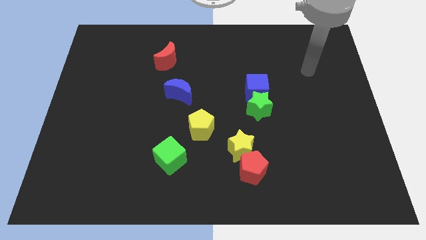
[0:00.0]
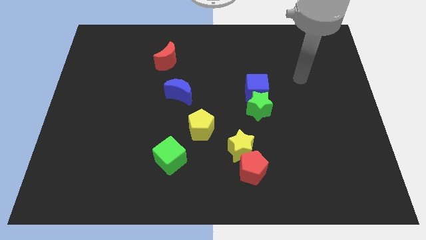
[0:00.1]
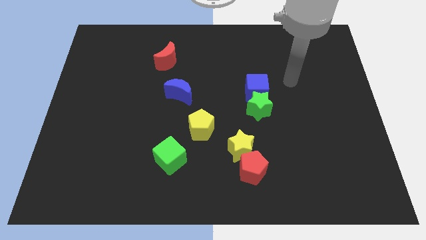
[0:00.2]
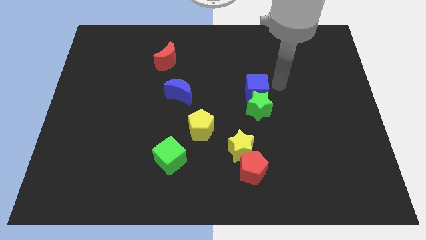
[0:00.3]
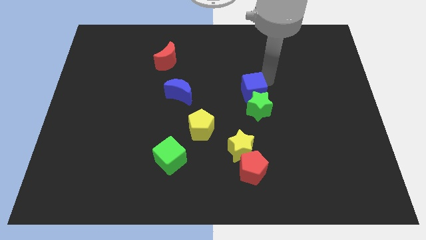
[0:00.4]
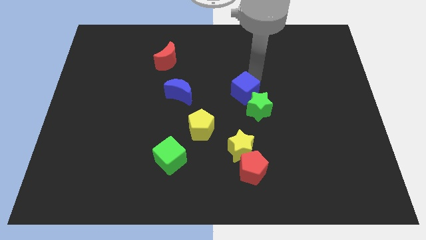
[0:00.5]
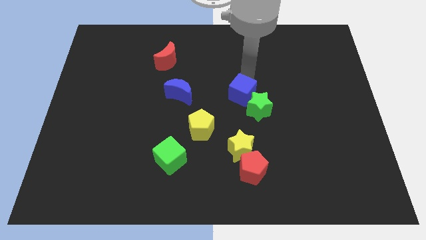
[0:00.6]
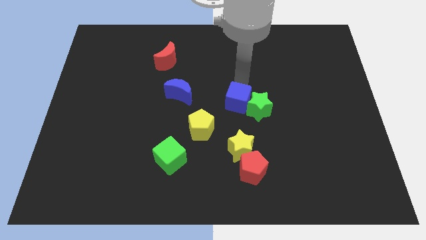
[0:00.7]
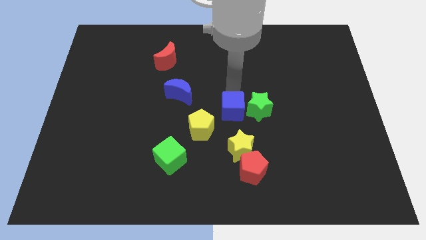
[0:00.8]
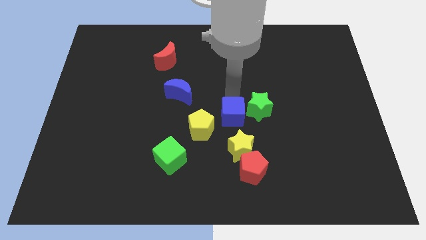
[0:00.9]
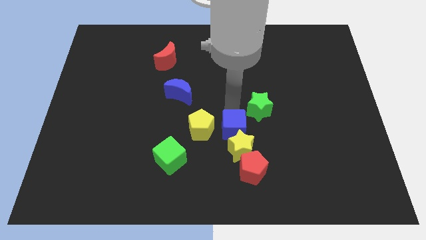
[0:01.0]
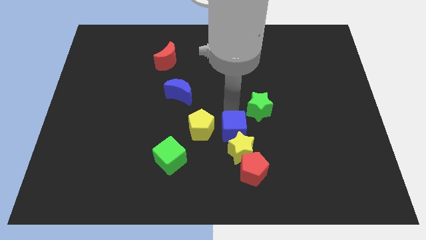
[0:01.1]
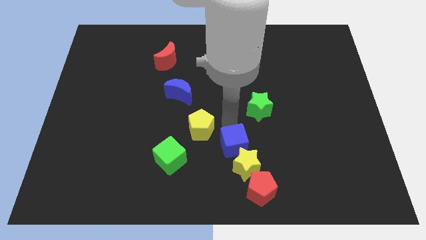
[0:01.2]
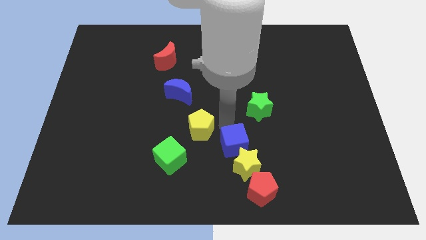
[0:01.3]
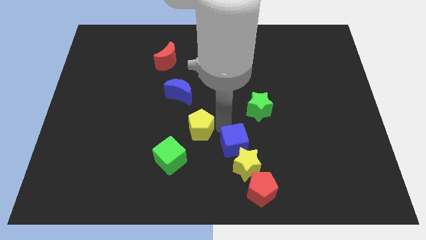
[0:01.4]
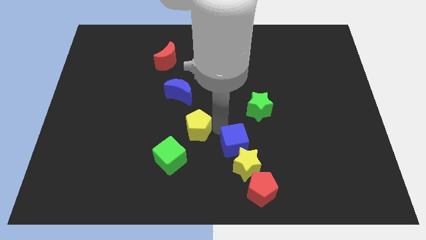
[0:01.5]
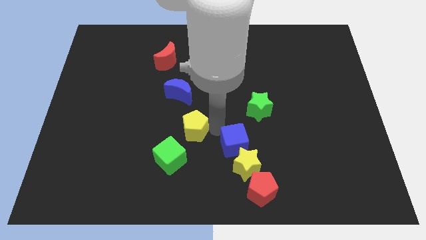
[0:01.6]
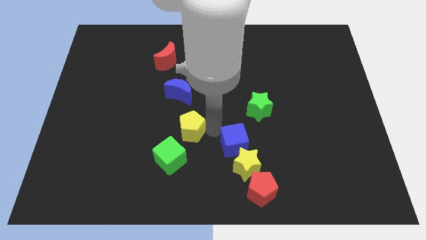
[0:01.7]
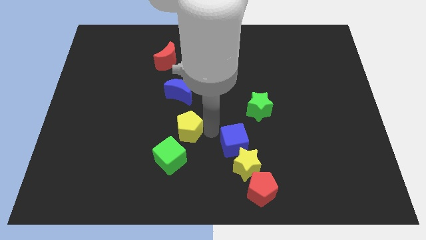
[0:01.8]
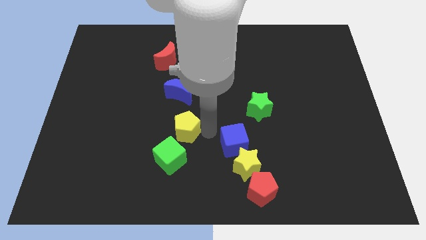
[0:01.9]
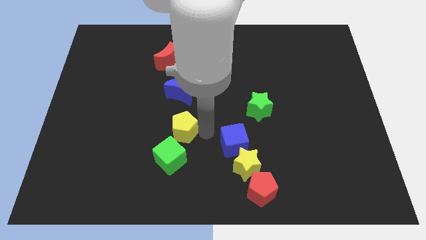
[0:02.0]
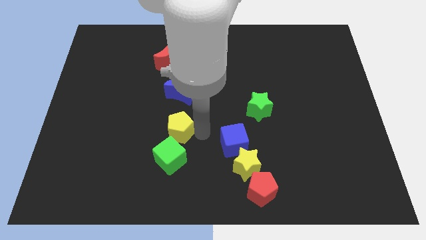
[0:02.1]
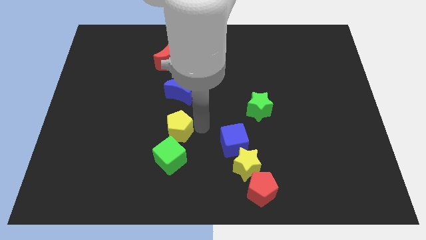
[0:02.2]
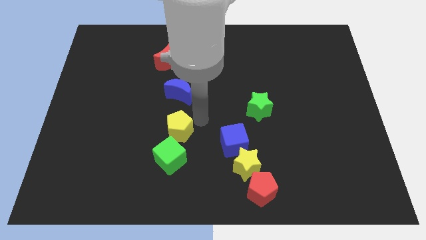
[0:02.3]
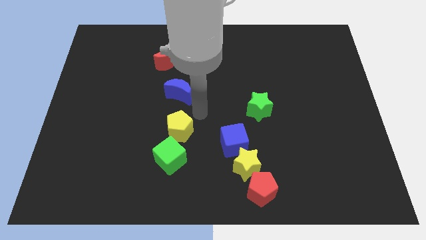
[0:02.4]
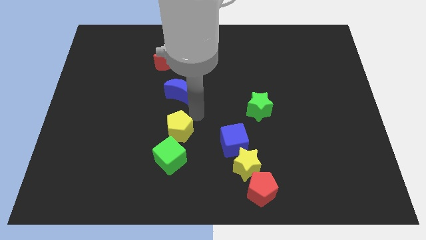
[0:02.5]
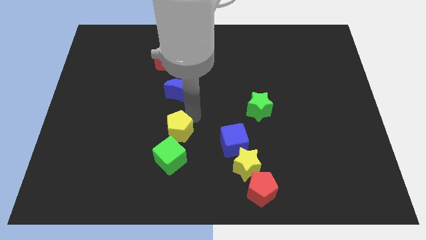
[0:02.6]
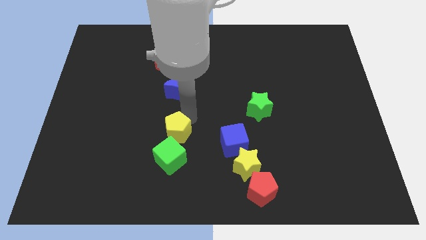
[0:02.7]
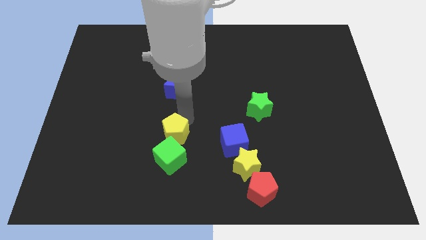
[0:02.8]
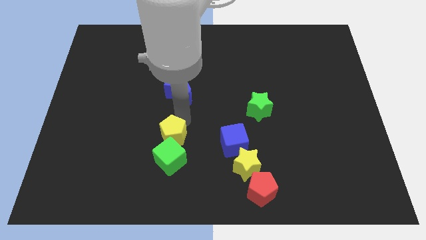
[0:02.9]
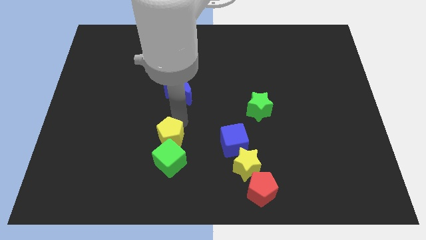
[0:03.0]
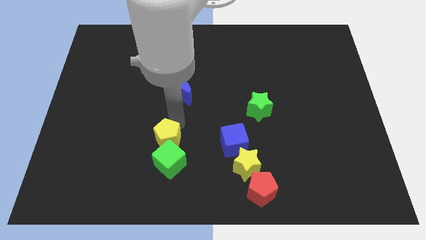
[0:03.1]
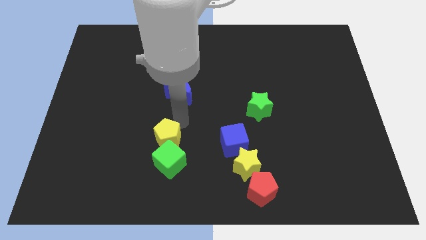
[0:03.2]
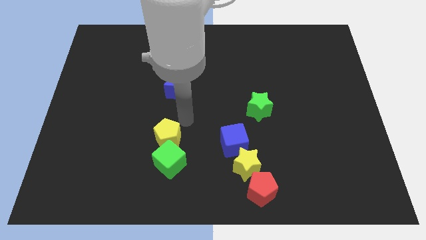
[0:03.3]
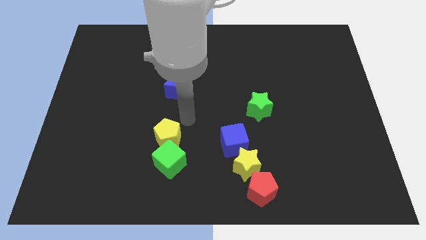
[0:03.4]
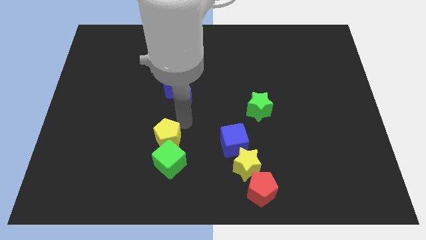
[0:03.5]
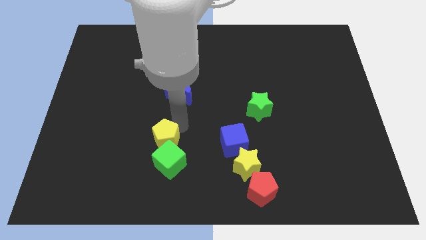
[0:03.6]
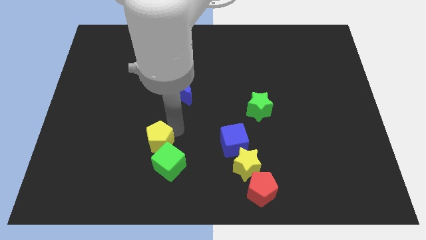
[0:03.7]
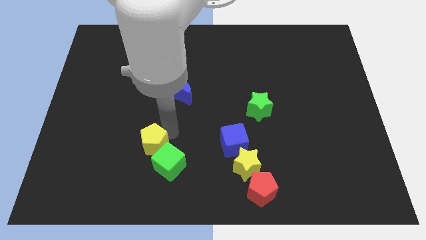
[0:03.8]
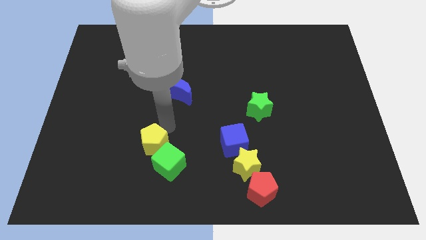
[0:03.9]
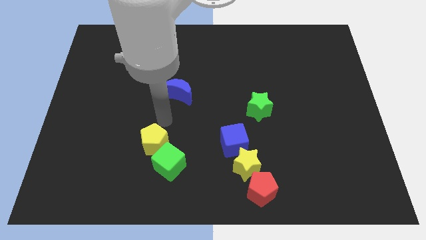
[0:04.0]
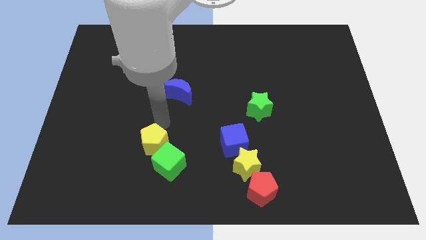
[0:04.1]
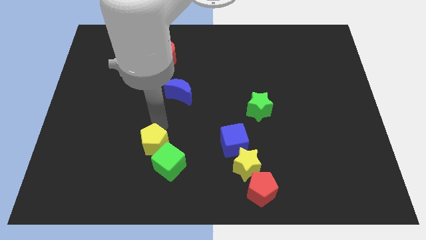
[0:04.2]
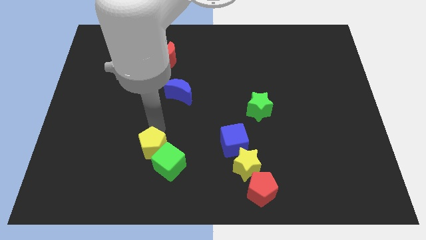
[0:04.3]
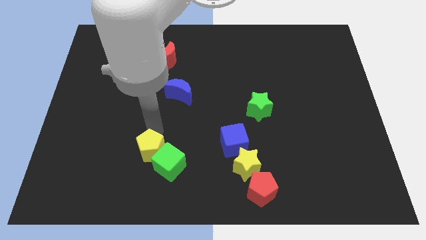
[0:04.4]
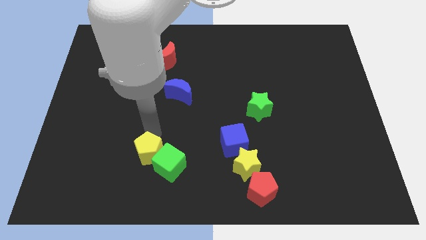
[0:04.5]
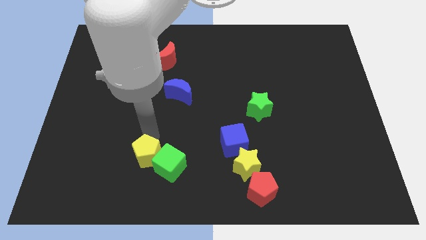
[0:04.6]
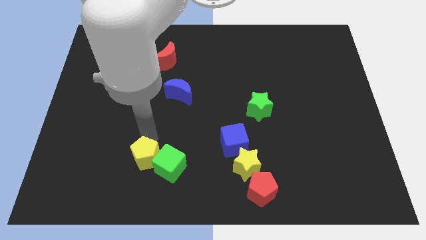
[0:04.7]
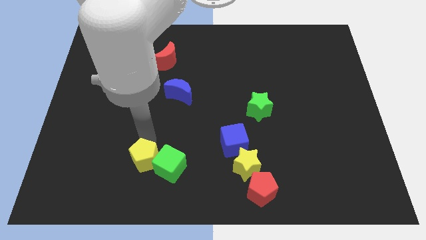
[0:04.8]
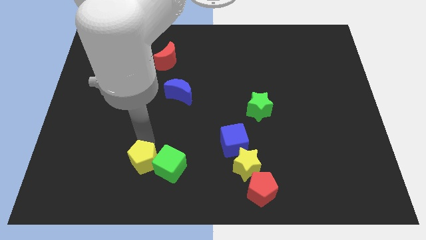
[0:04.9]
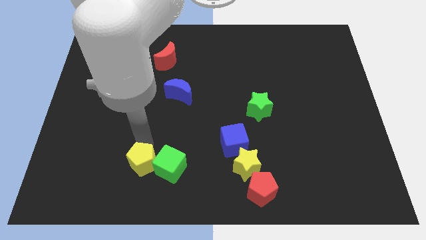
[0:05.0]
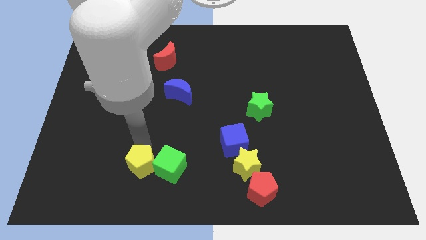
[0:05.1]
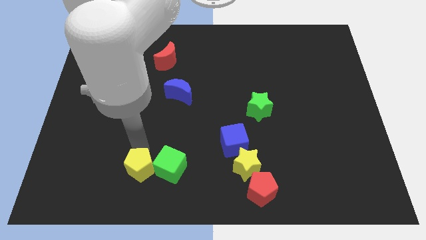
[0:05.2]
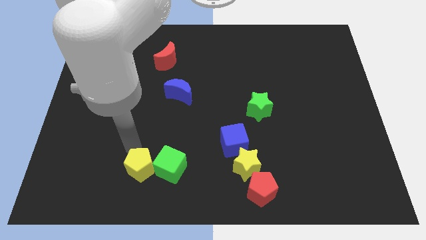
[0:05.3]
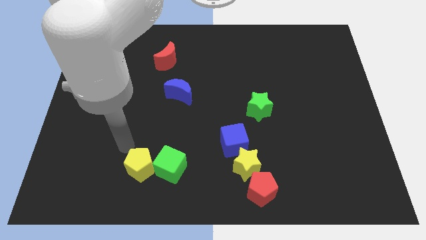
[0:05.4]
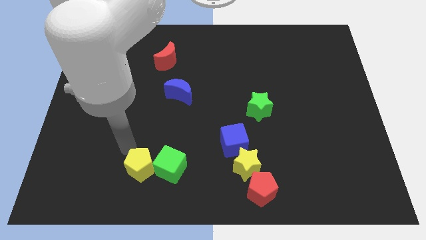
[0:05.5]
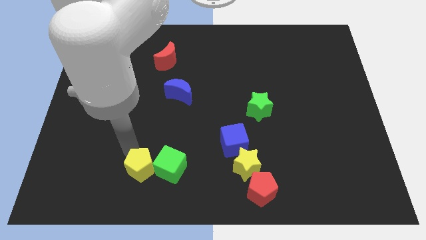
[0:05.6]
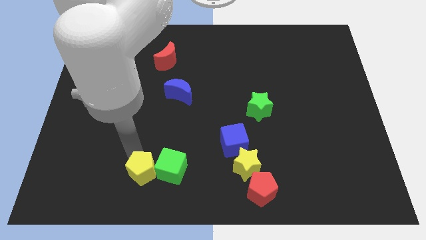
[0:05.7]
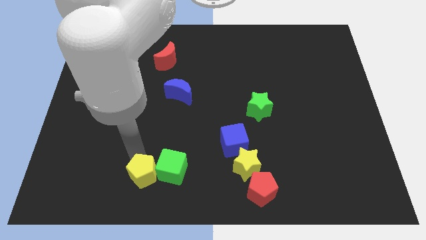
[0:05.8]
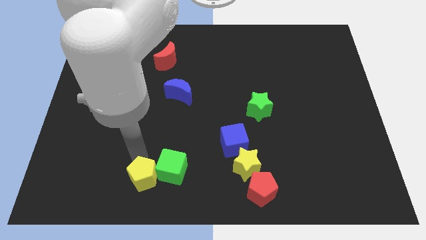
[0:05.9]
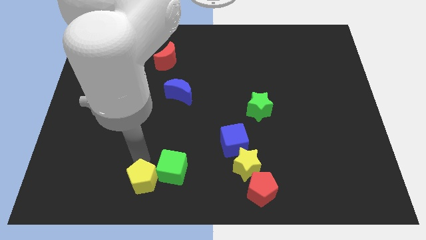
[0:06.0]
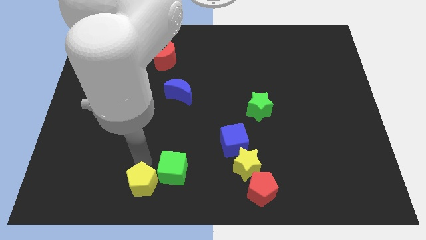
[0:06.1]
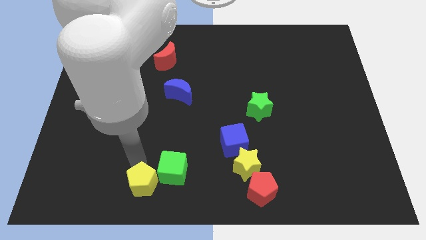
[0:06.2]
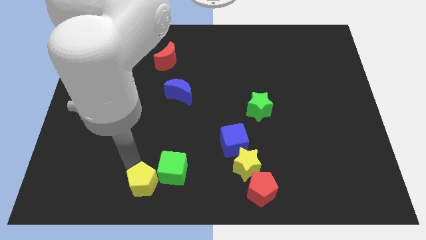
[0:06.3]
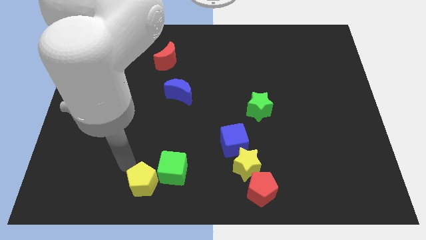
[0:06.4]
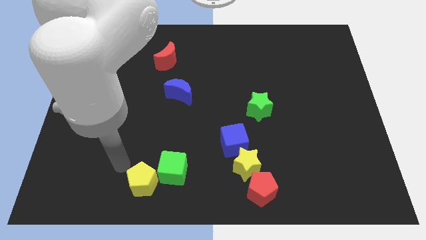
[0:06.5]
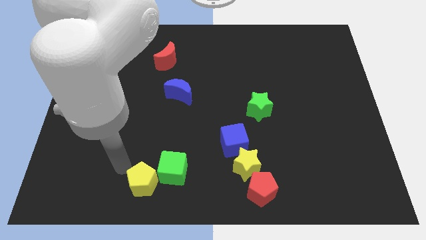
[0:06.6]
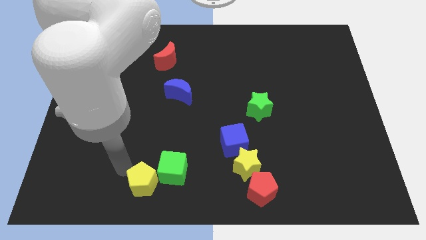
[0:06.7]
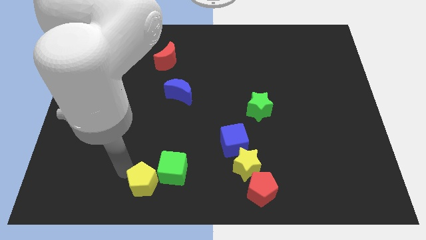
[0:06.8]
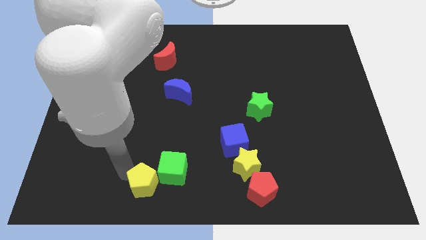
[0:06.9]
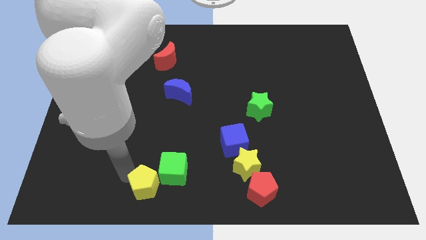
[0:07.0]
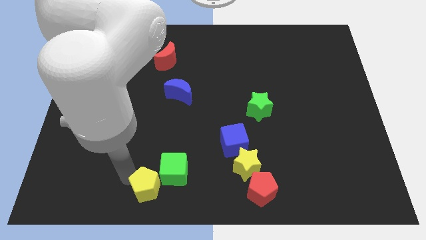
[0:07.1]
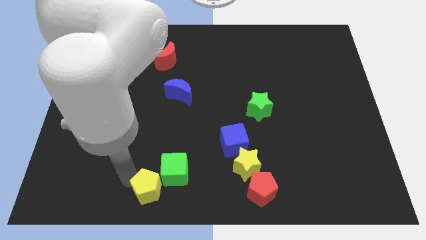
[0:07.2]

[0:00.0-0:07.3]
slide the yellow pentagon to the bottom side
